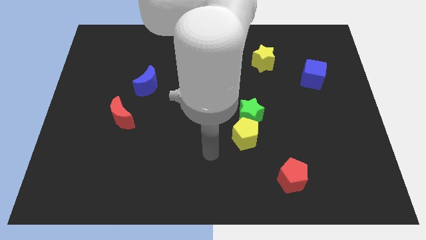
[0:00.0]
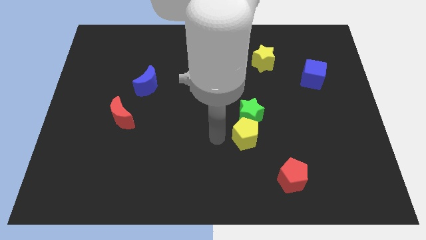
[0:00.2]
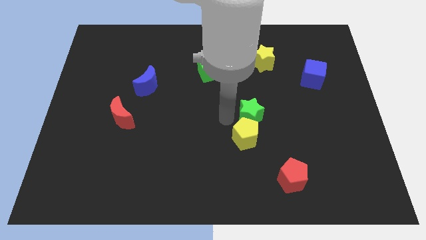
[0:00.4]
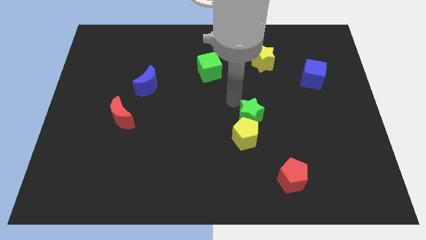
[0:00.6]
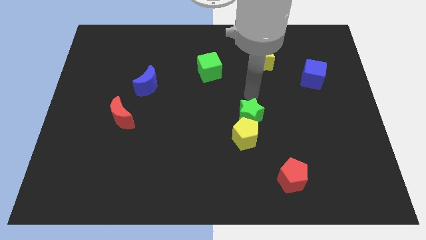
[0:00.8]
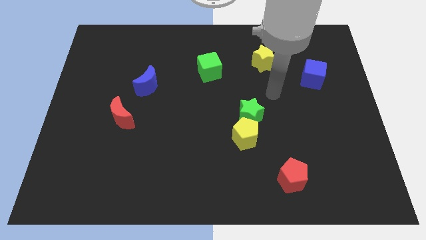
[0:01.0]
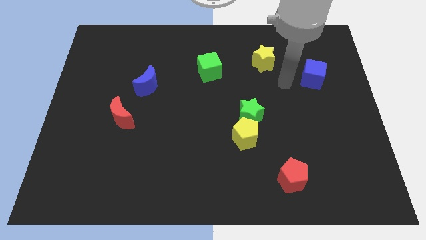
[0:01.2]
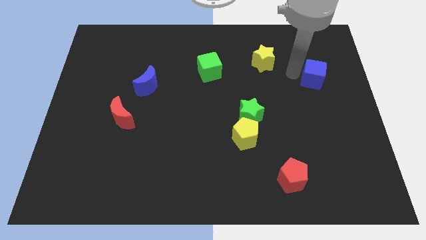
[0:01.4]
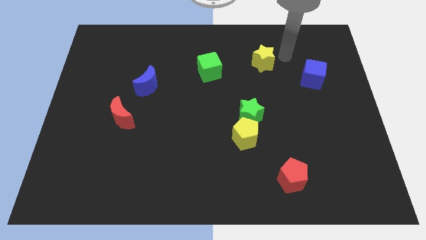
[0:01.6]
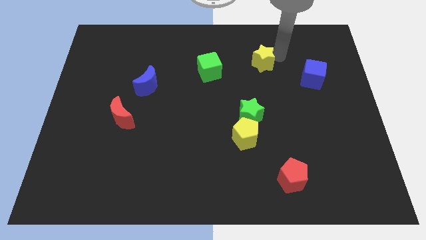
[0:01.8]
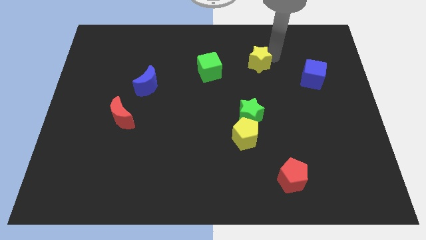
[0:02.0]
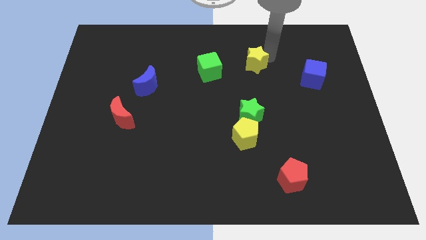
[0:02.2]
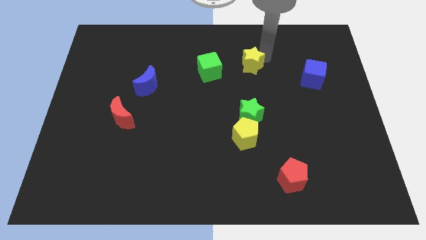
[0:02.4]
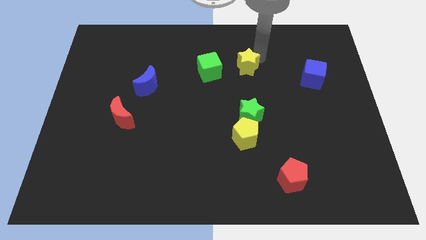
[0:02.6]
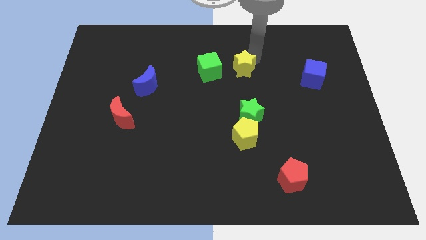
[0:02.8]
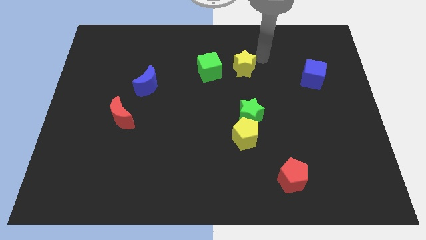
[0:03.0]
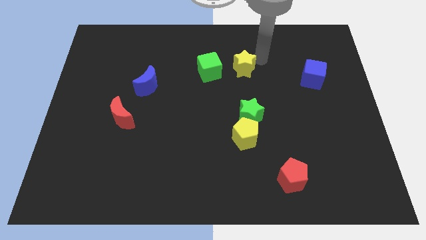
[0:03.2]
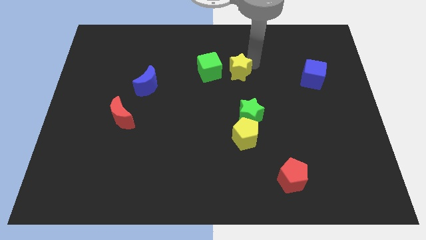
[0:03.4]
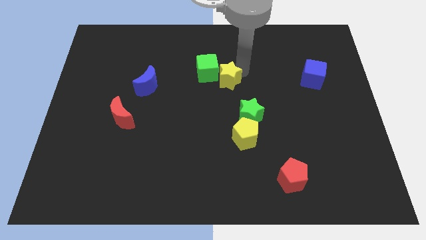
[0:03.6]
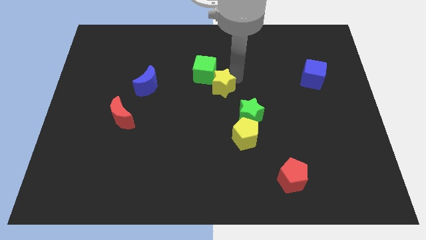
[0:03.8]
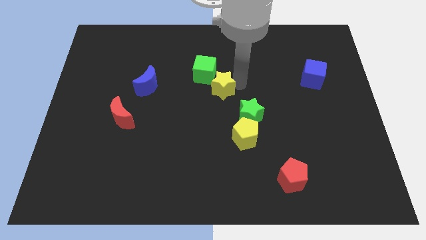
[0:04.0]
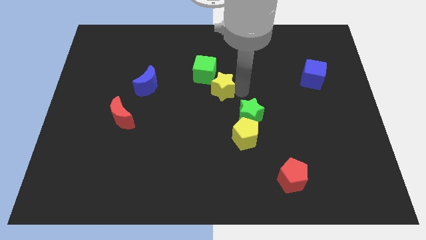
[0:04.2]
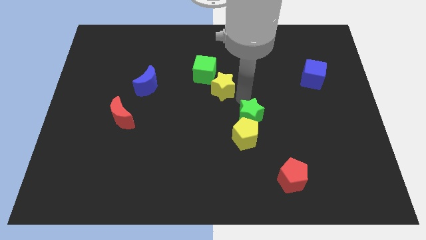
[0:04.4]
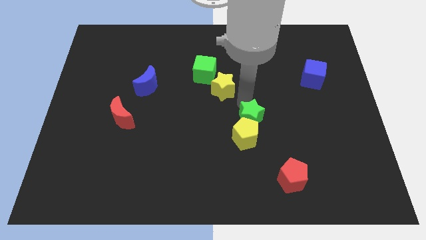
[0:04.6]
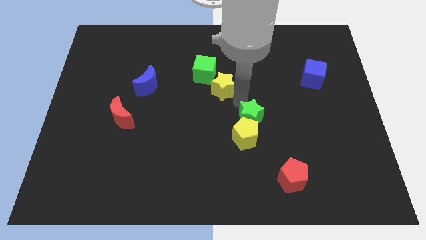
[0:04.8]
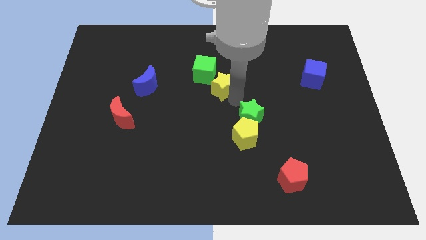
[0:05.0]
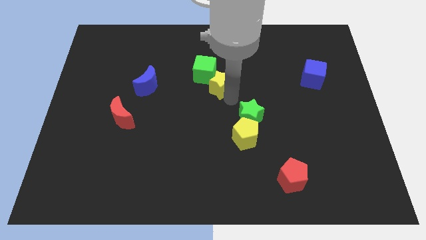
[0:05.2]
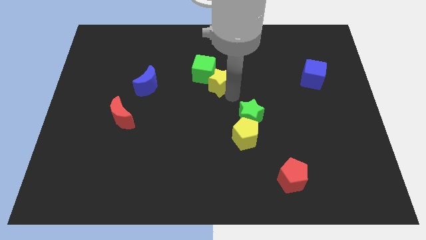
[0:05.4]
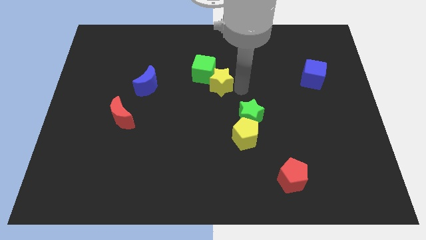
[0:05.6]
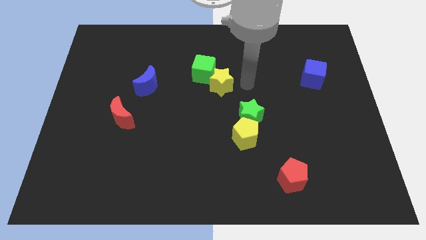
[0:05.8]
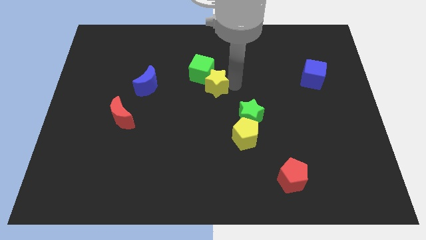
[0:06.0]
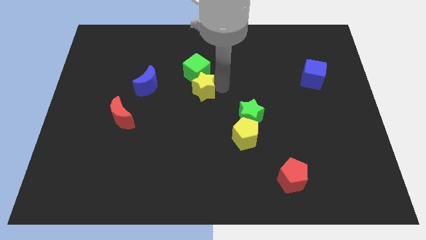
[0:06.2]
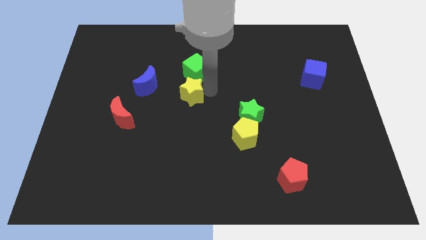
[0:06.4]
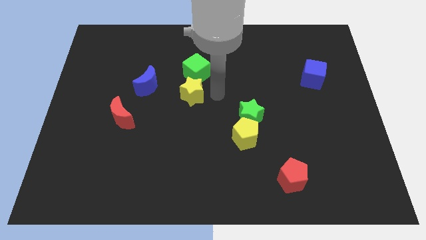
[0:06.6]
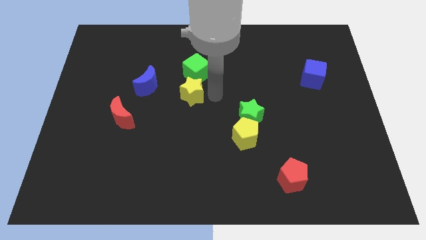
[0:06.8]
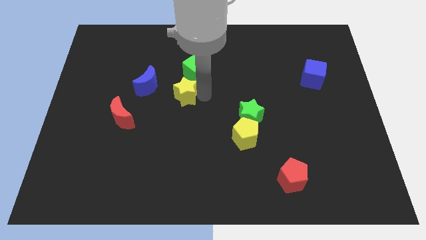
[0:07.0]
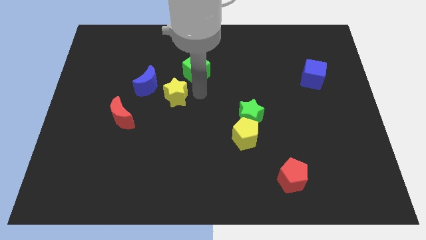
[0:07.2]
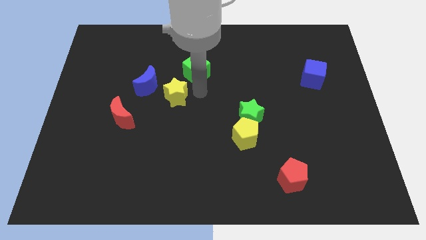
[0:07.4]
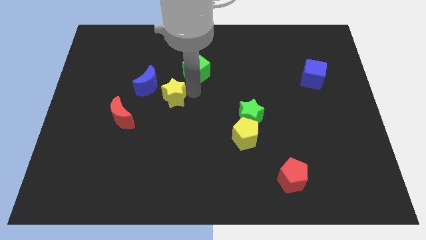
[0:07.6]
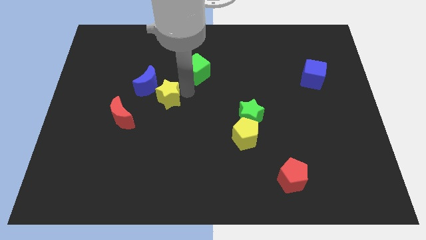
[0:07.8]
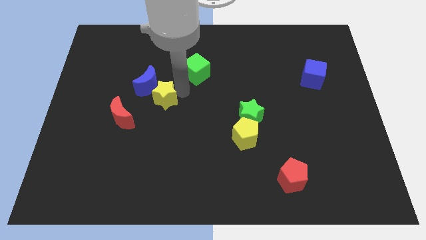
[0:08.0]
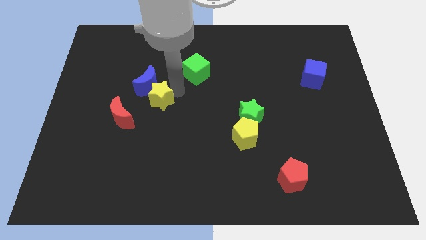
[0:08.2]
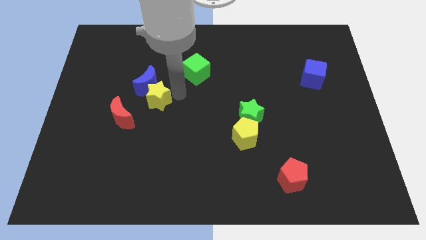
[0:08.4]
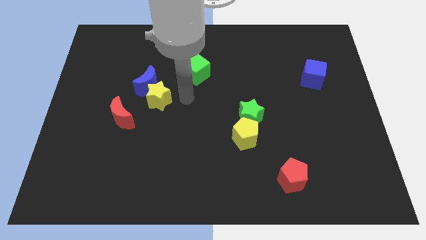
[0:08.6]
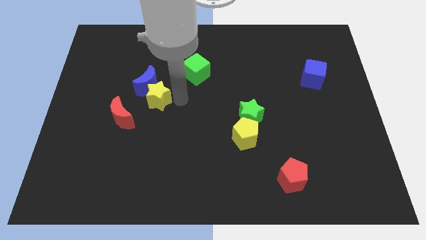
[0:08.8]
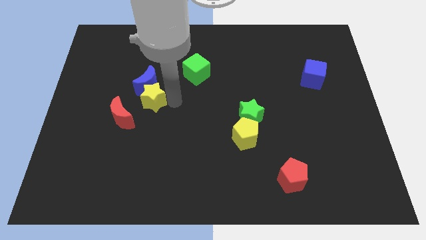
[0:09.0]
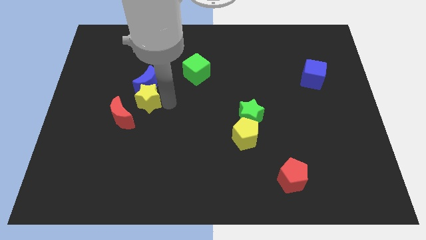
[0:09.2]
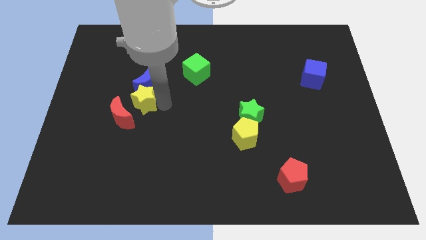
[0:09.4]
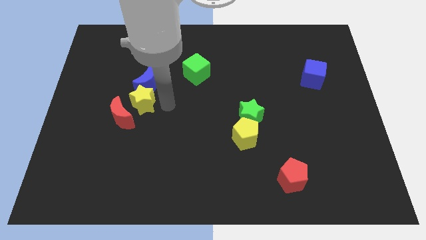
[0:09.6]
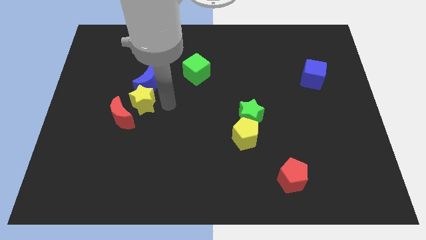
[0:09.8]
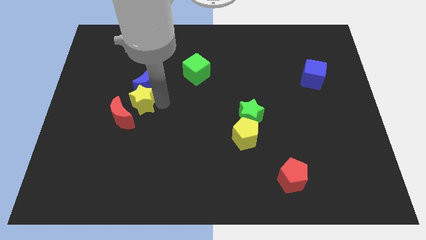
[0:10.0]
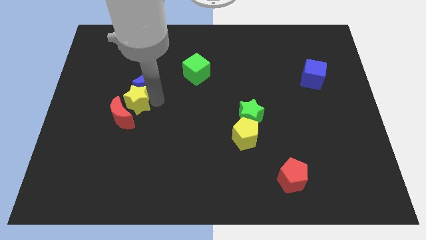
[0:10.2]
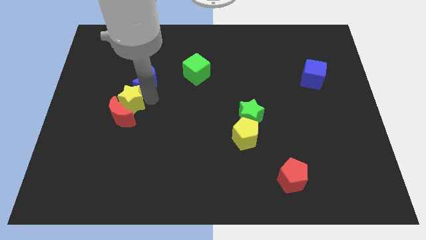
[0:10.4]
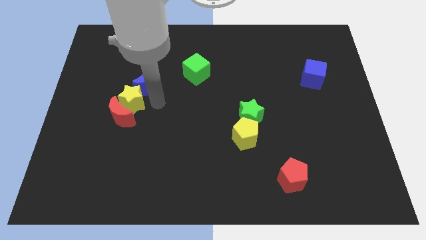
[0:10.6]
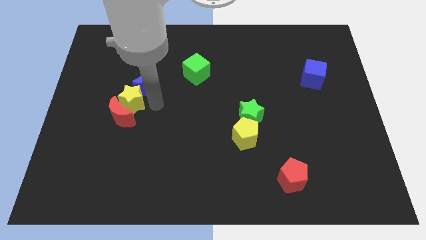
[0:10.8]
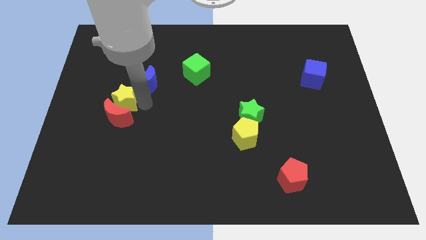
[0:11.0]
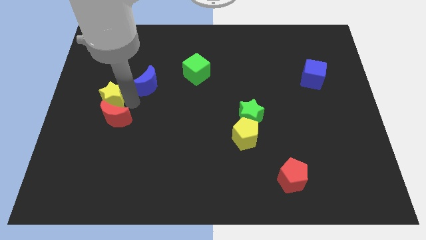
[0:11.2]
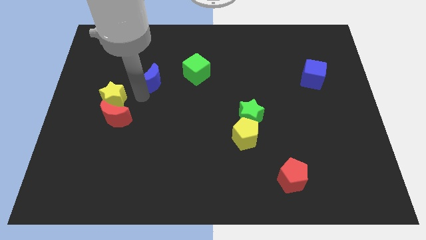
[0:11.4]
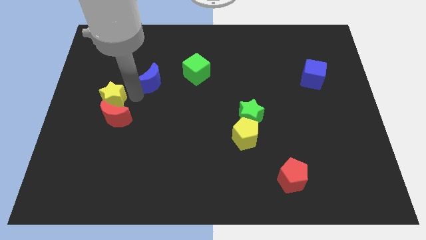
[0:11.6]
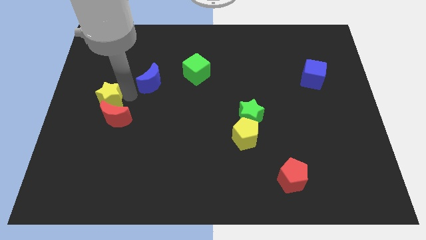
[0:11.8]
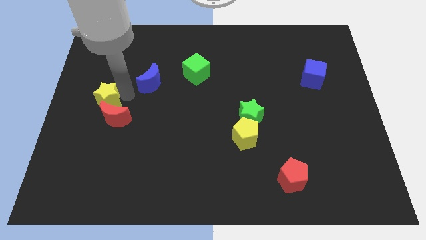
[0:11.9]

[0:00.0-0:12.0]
move the yellow star to the left side

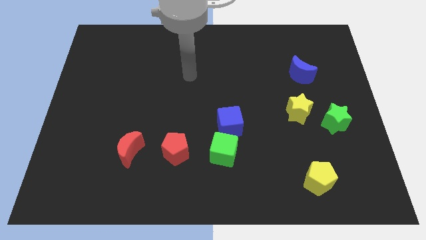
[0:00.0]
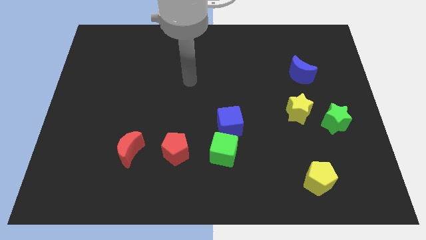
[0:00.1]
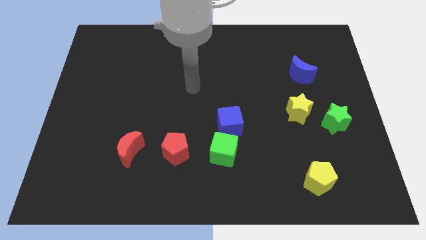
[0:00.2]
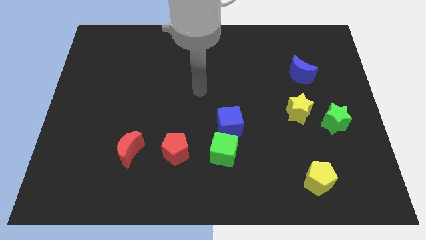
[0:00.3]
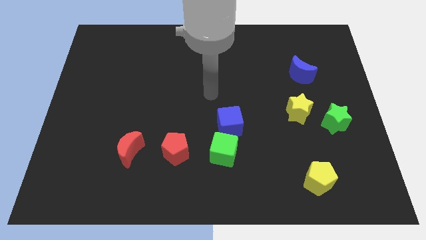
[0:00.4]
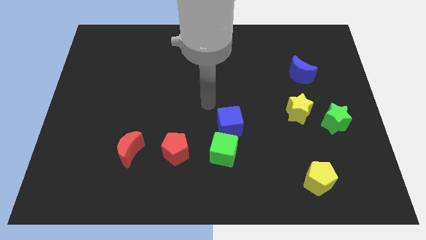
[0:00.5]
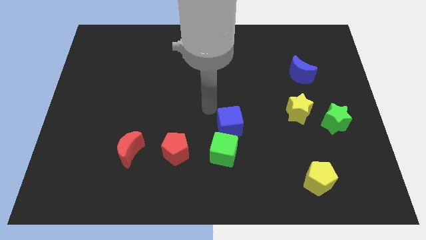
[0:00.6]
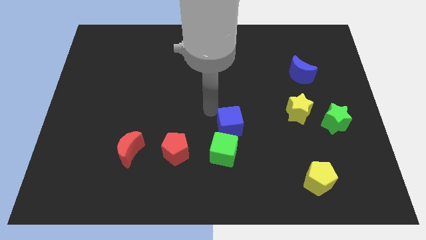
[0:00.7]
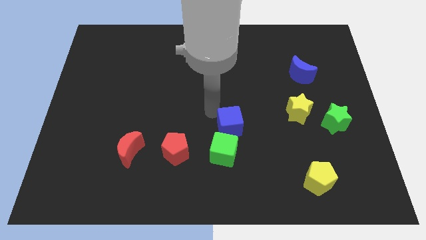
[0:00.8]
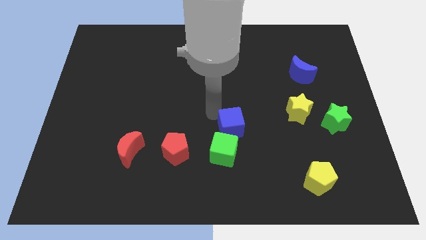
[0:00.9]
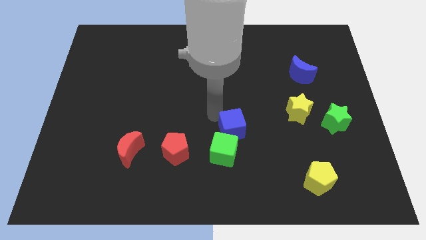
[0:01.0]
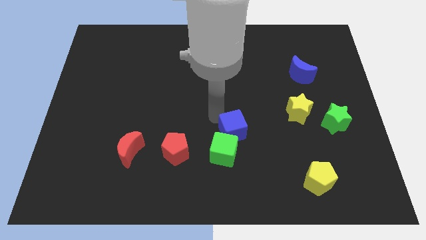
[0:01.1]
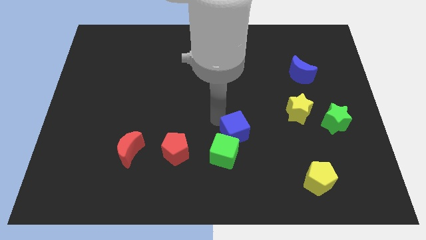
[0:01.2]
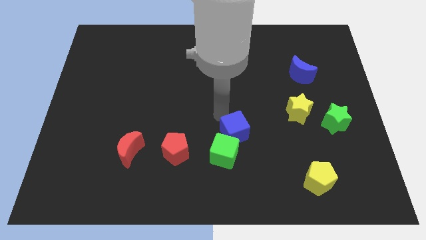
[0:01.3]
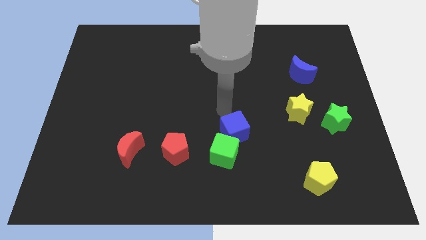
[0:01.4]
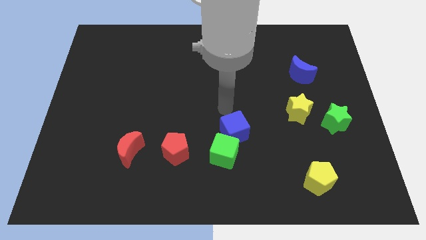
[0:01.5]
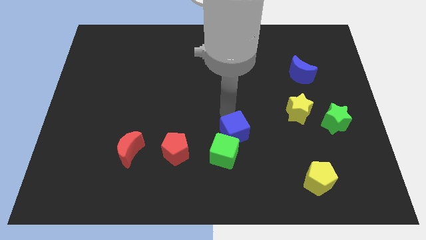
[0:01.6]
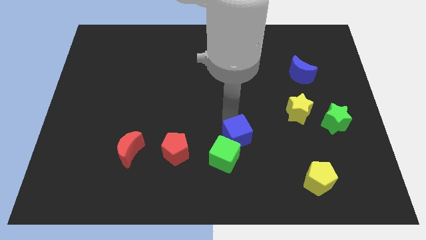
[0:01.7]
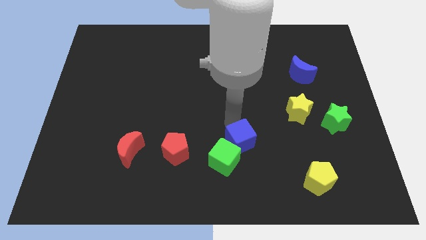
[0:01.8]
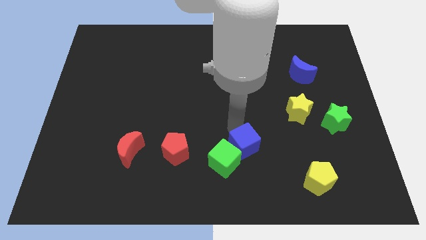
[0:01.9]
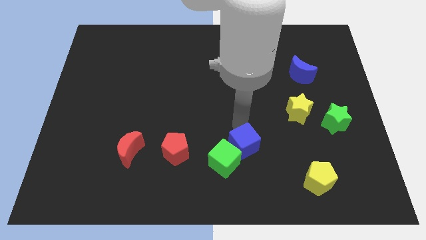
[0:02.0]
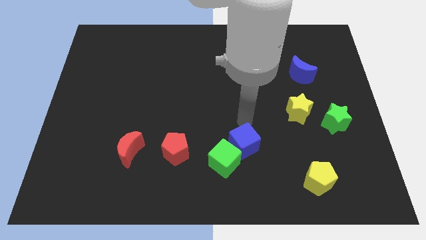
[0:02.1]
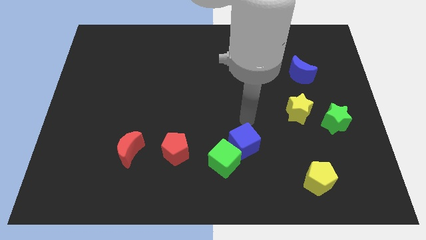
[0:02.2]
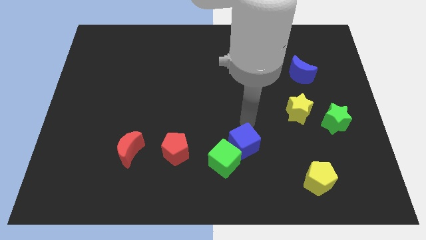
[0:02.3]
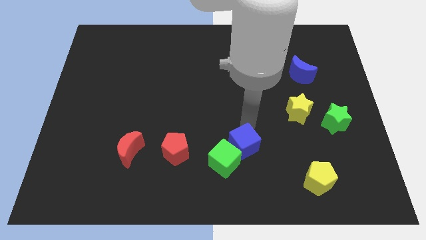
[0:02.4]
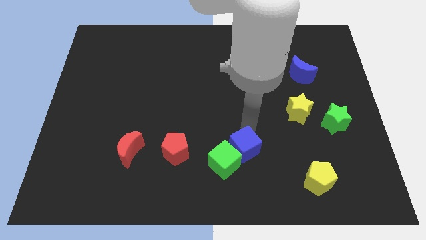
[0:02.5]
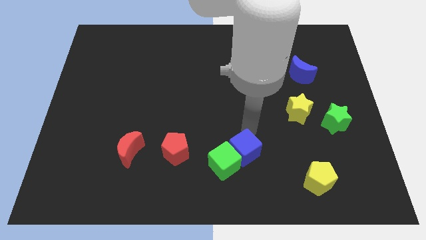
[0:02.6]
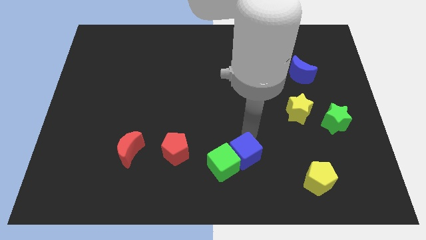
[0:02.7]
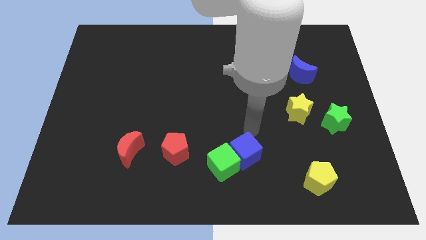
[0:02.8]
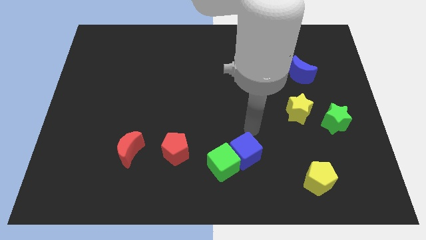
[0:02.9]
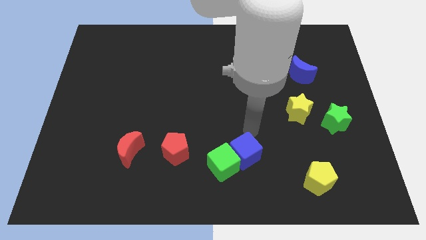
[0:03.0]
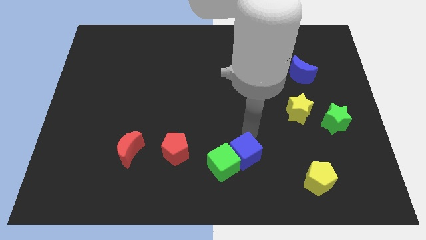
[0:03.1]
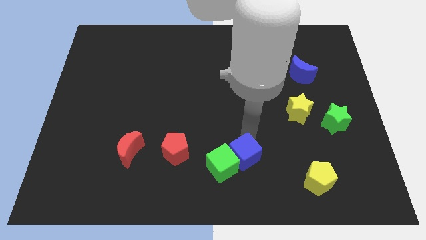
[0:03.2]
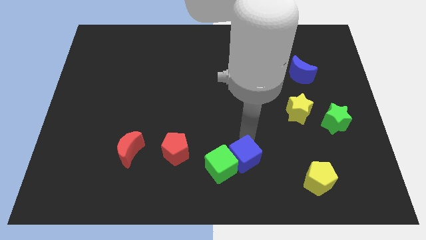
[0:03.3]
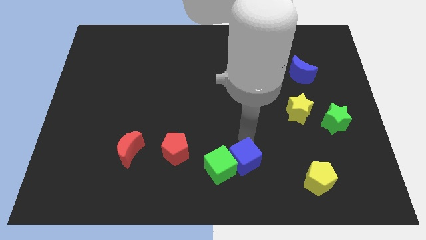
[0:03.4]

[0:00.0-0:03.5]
push the blue cube to the bottom
